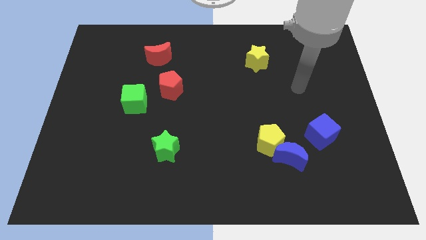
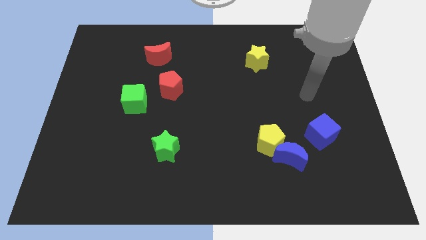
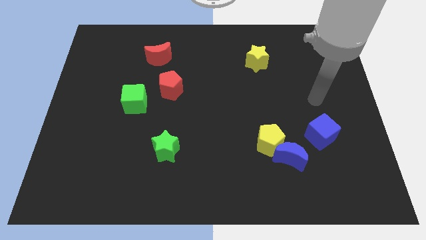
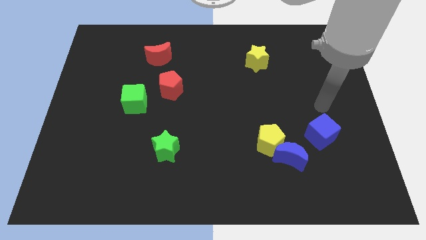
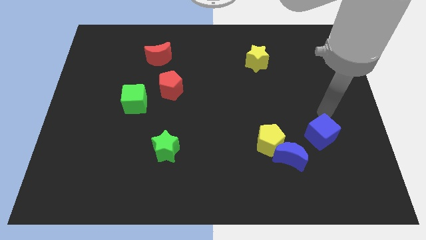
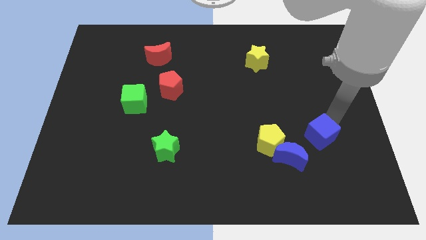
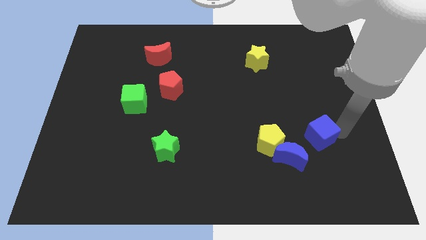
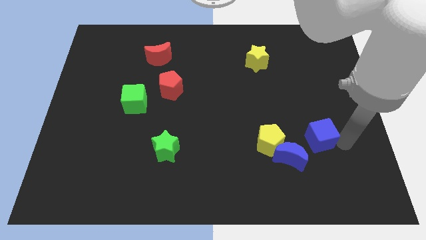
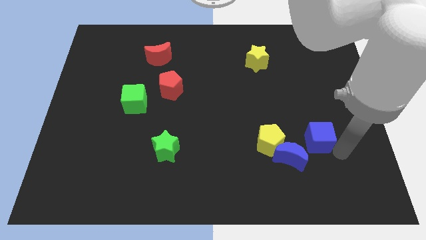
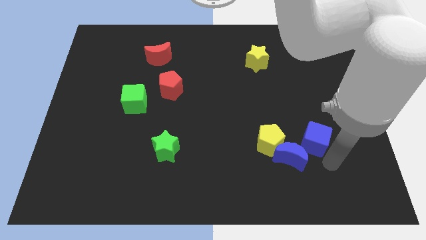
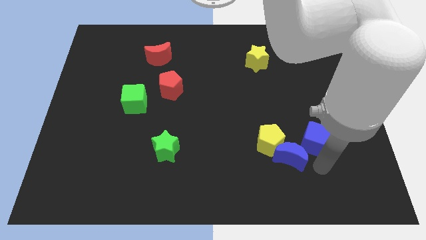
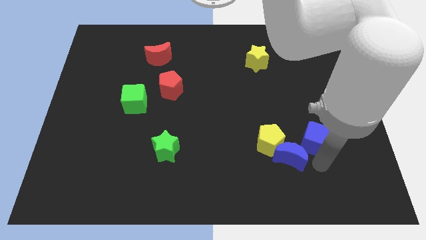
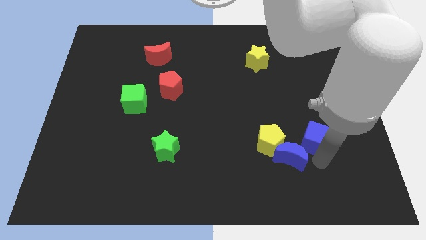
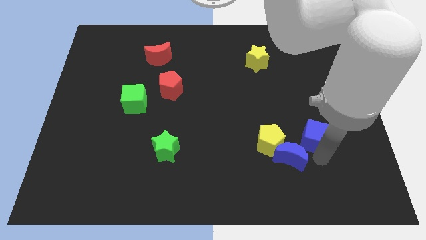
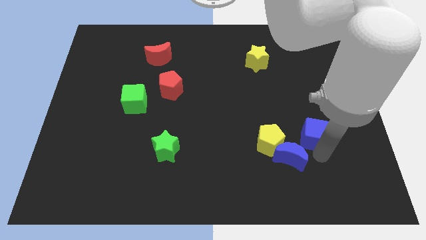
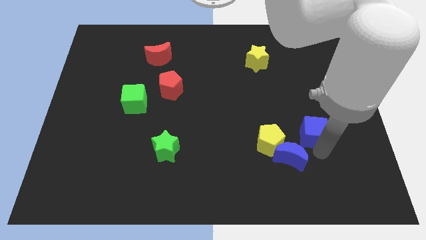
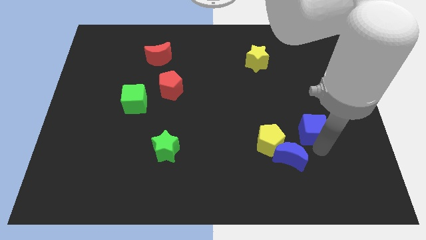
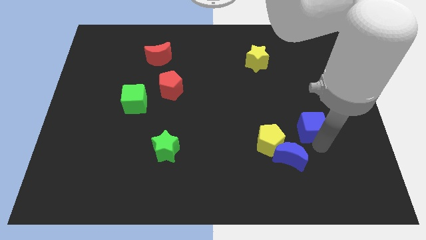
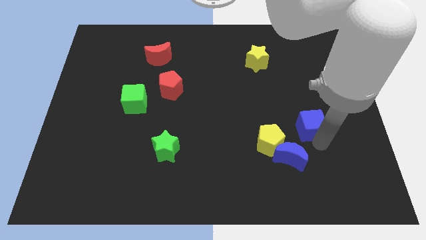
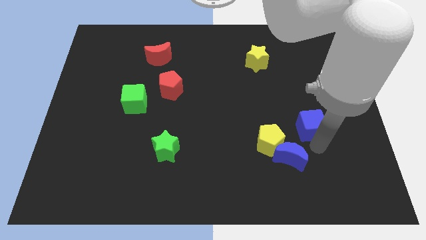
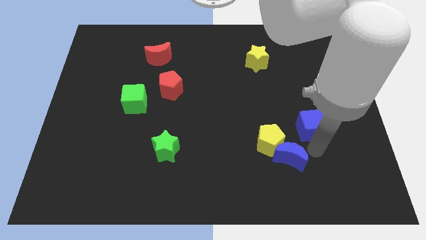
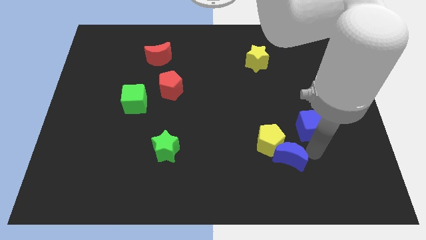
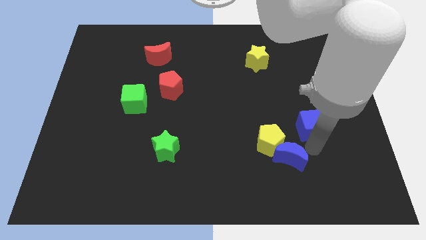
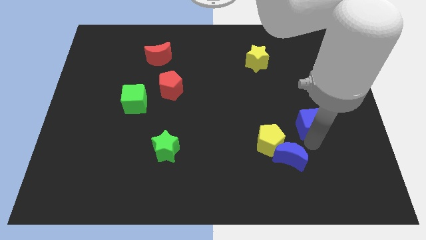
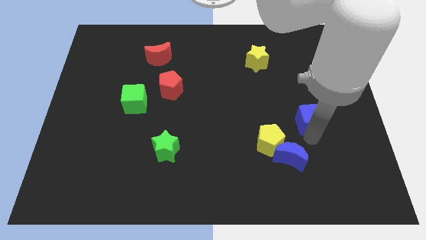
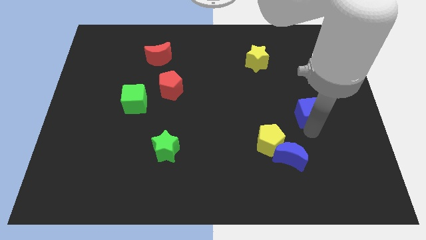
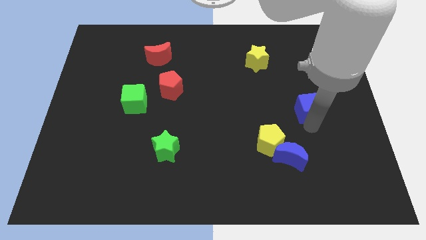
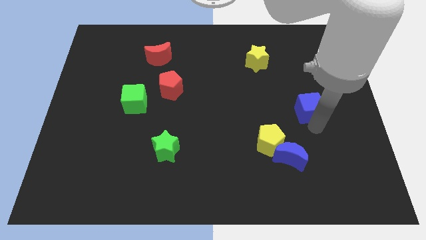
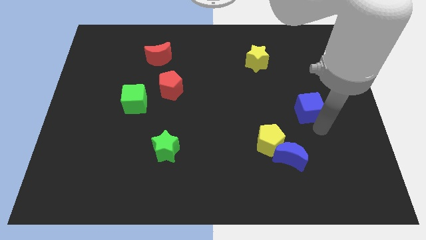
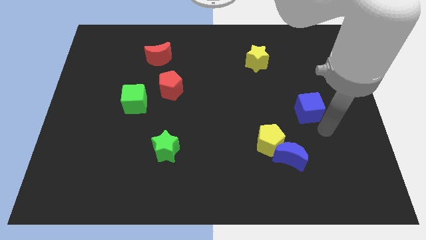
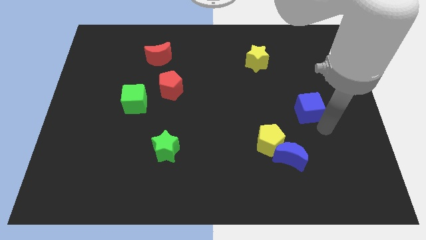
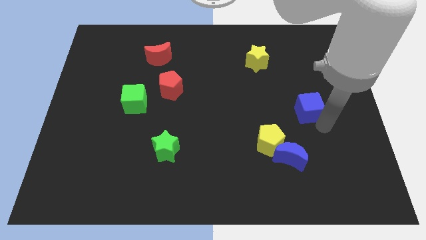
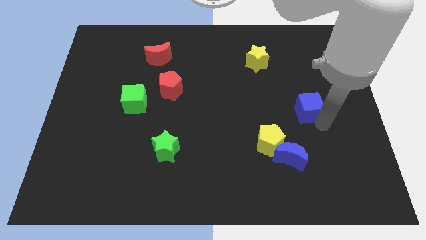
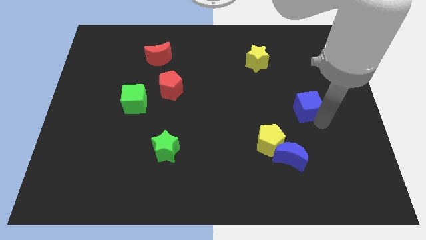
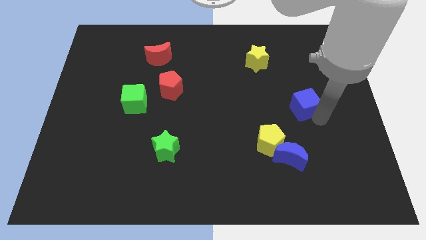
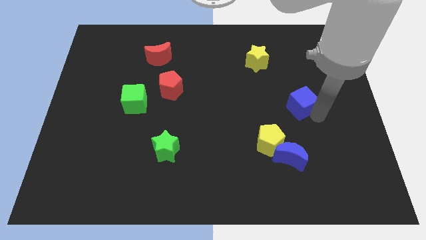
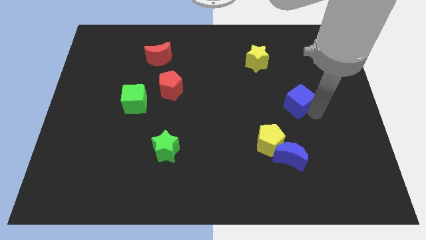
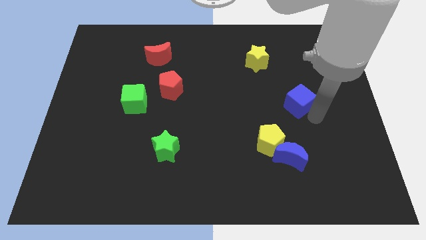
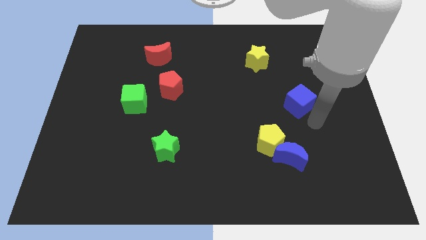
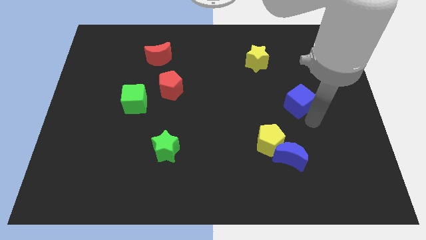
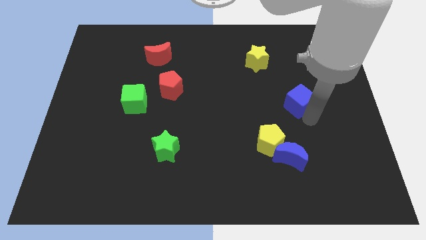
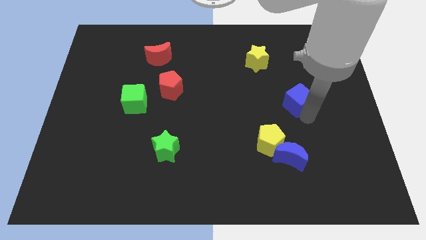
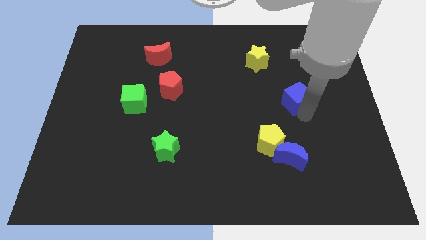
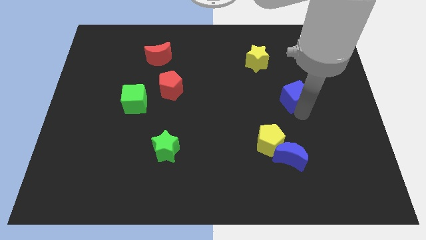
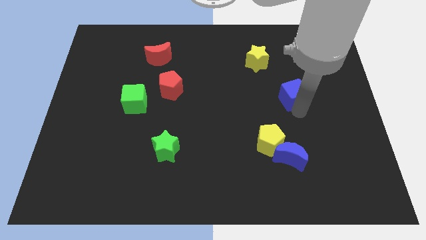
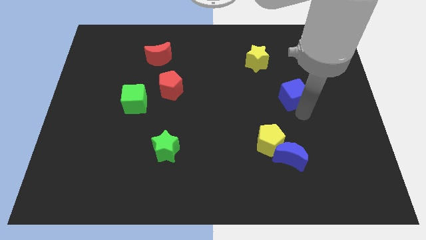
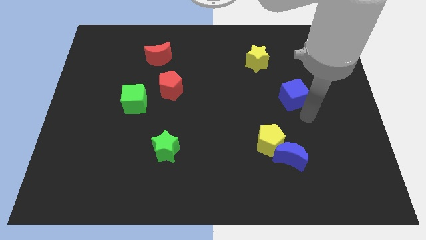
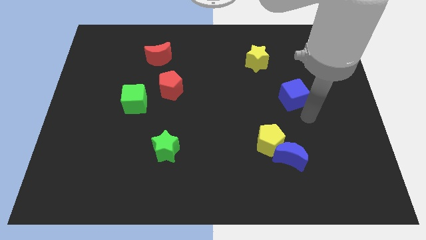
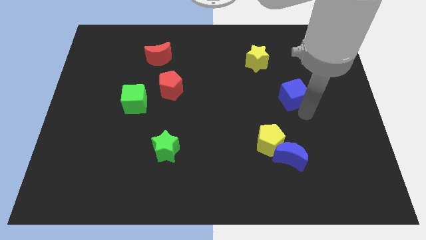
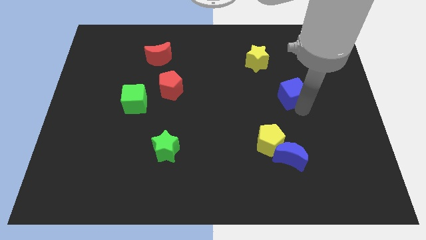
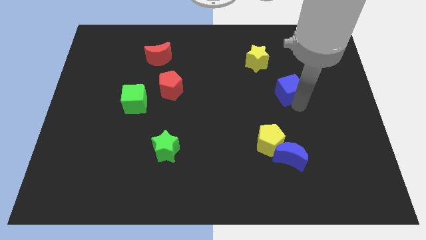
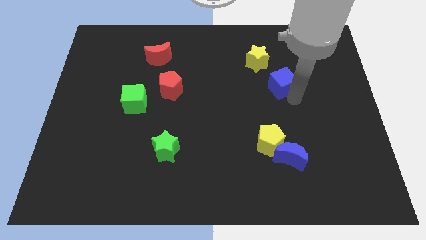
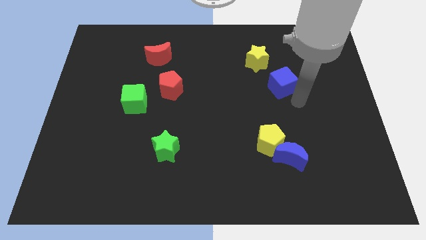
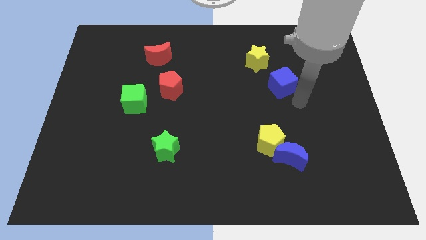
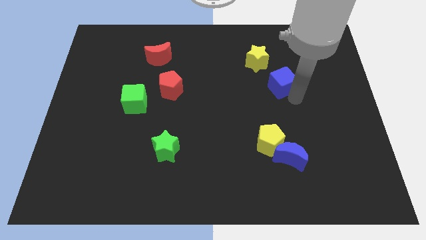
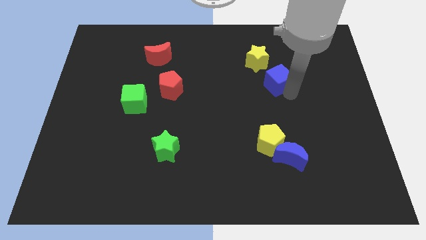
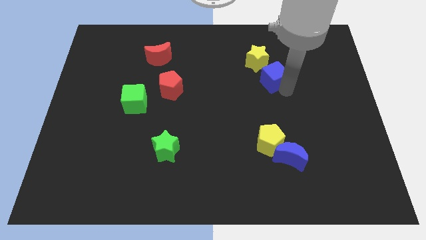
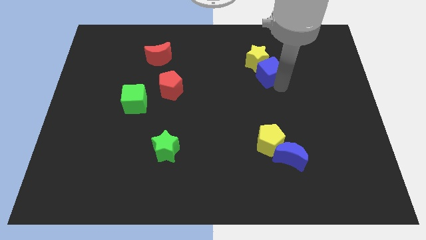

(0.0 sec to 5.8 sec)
move the blue cube close to the yellow star

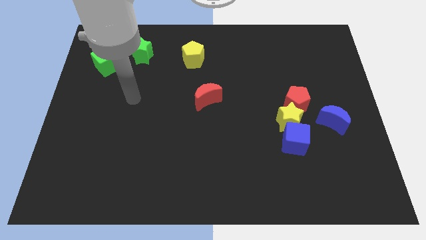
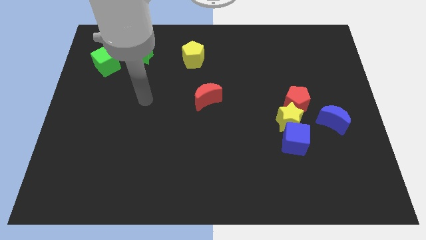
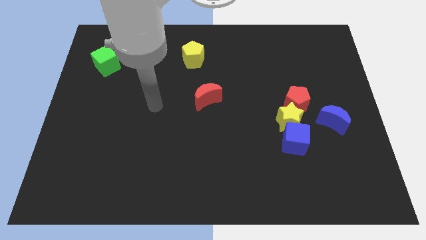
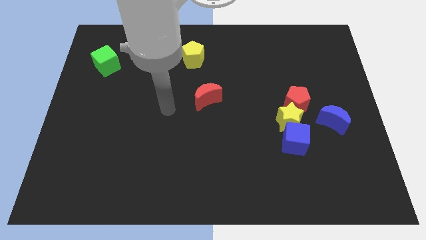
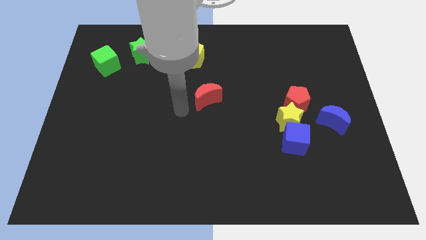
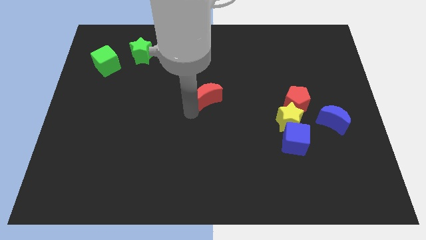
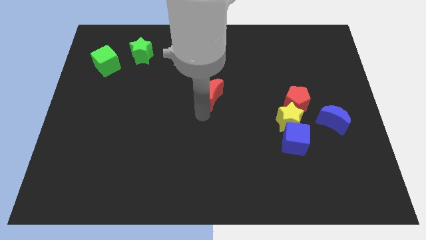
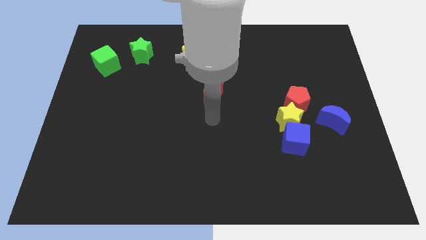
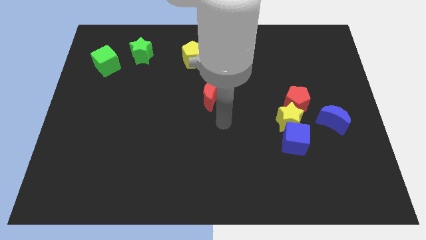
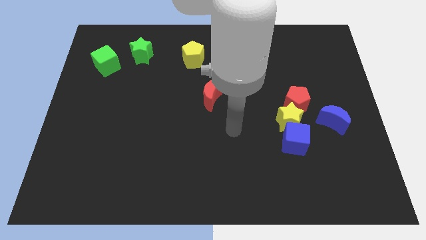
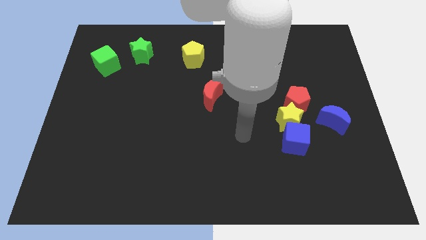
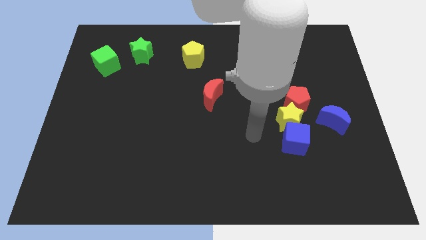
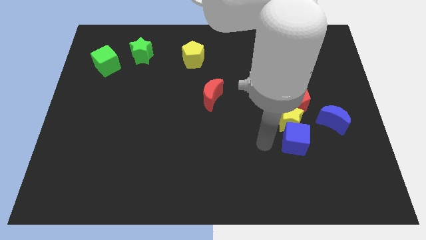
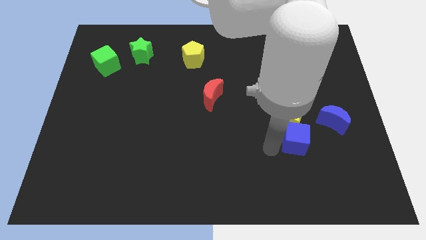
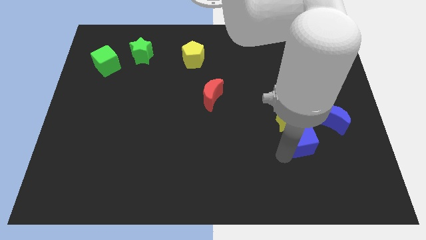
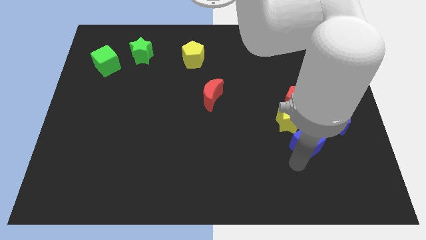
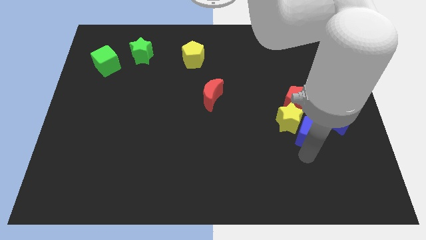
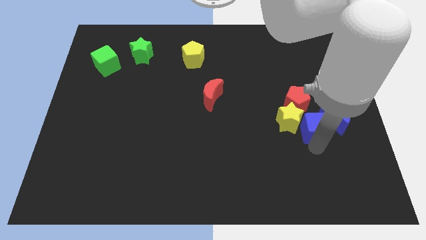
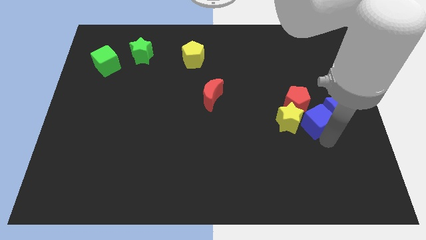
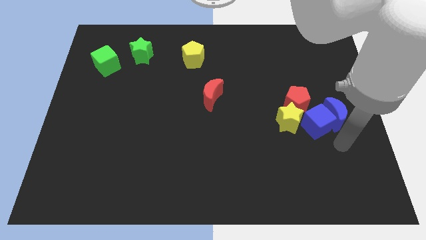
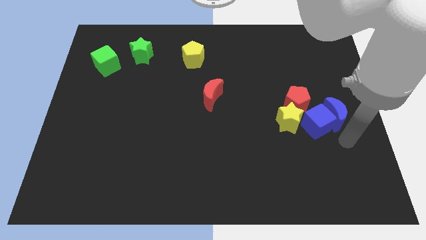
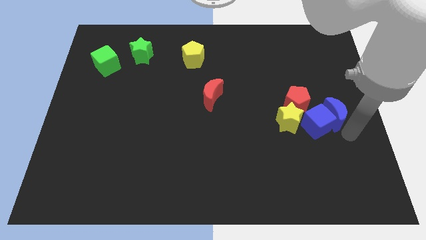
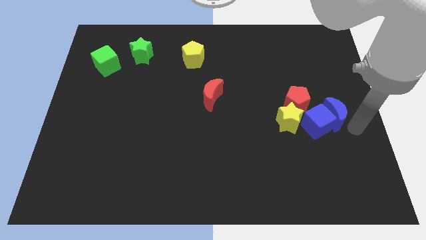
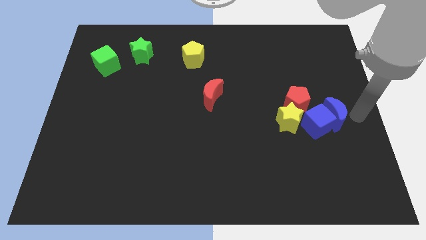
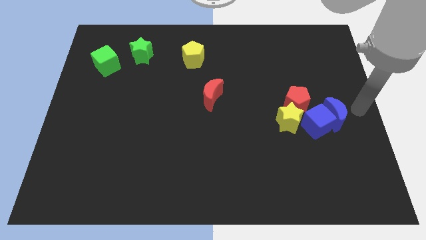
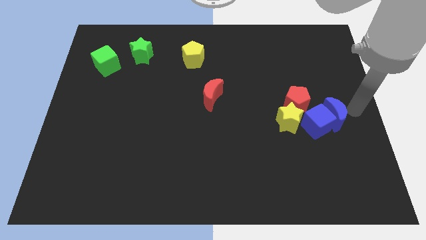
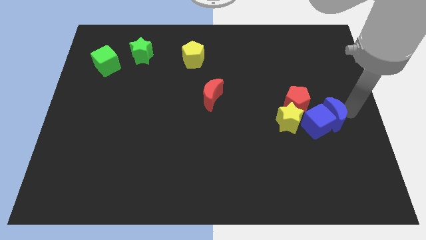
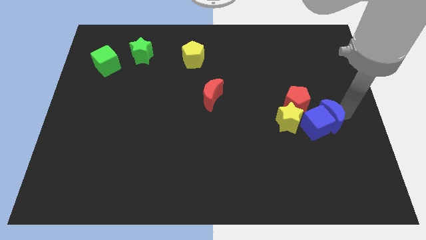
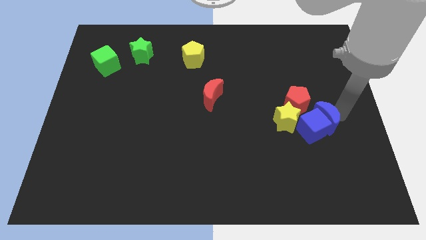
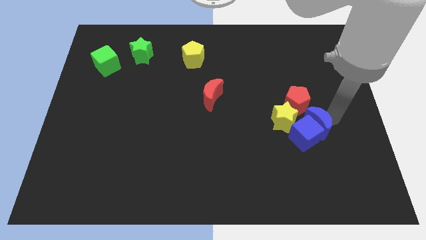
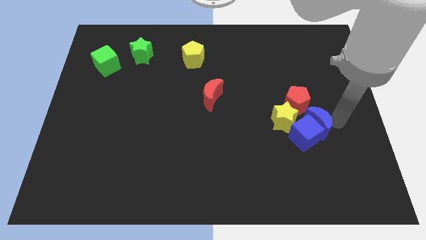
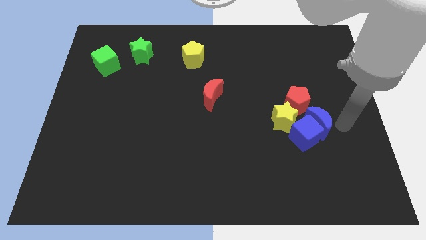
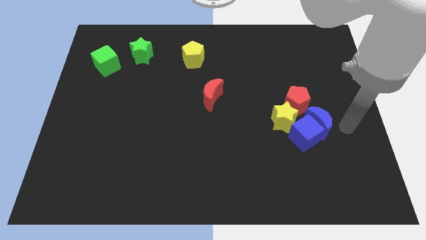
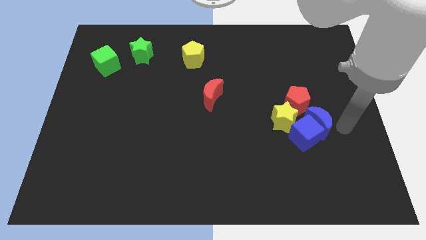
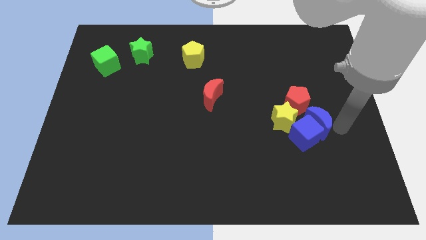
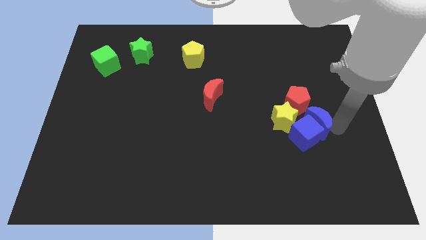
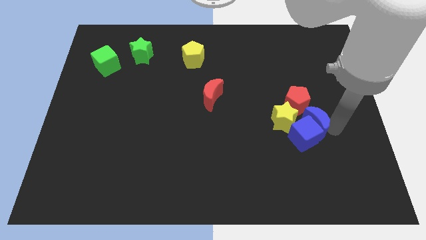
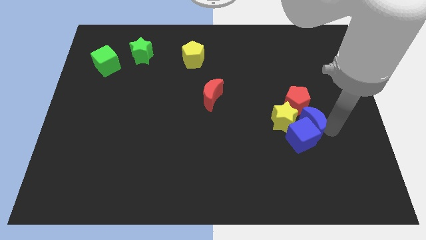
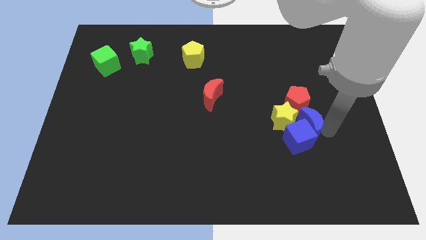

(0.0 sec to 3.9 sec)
slide the blue moon next to the yellow star
